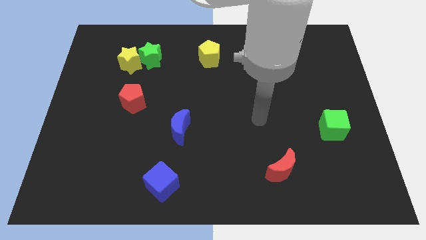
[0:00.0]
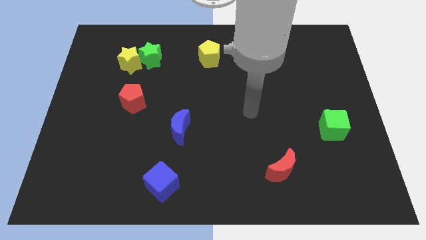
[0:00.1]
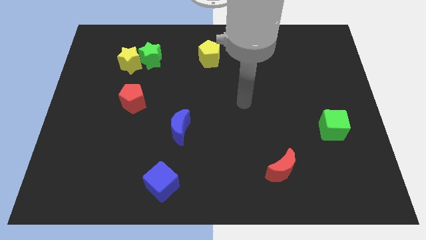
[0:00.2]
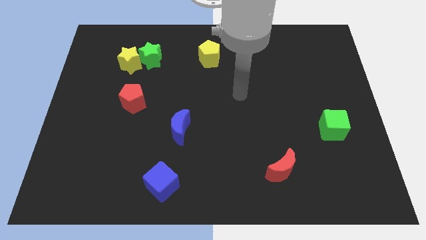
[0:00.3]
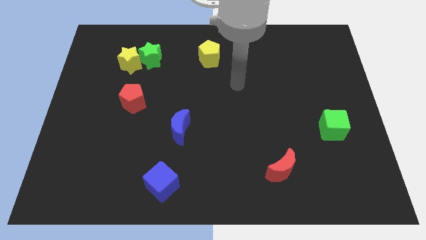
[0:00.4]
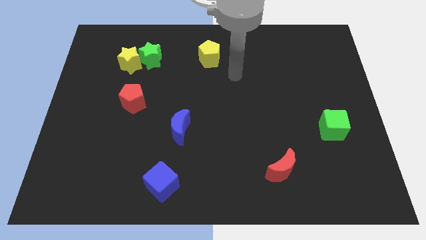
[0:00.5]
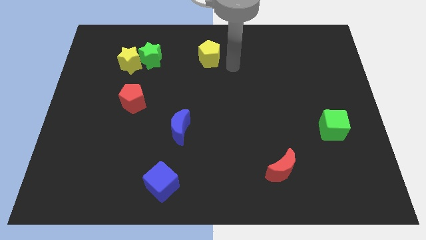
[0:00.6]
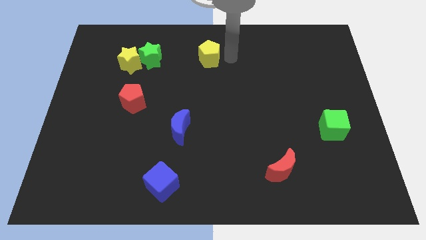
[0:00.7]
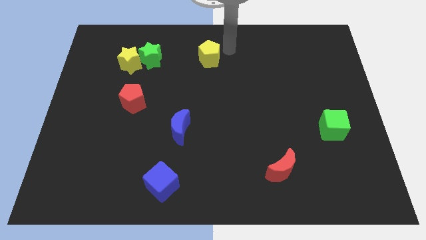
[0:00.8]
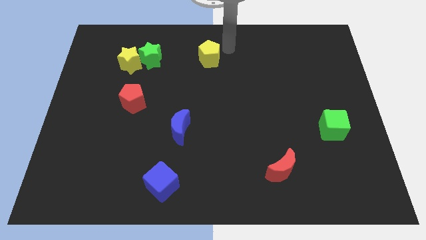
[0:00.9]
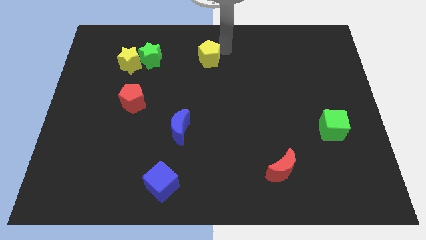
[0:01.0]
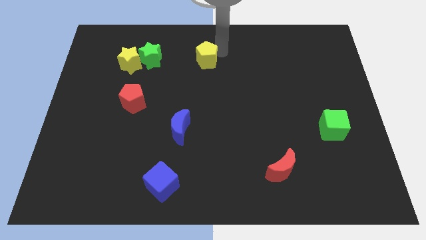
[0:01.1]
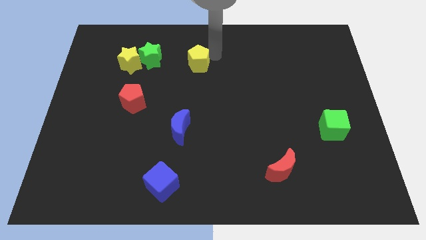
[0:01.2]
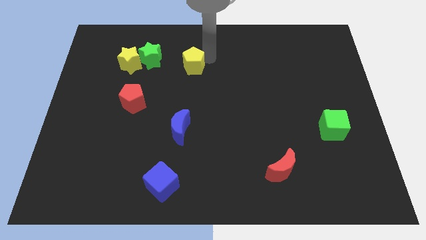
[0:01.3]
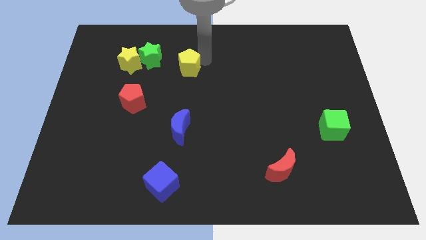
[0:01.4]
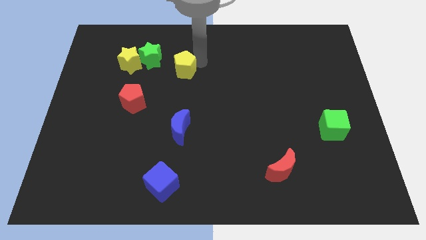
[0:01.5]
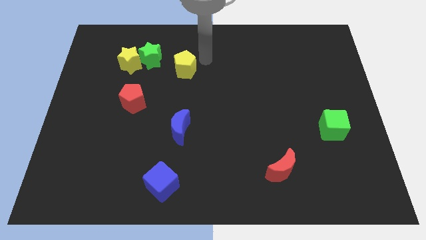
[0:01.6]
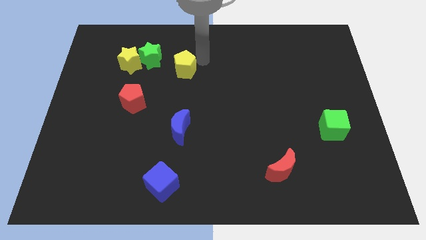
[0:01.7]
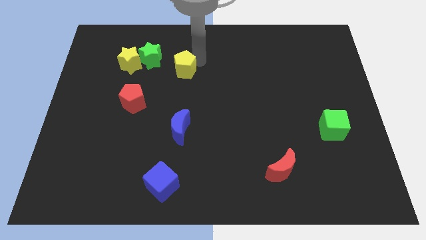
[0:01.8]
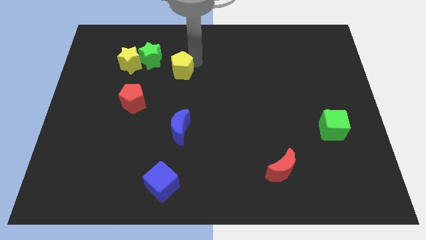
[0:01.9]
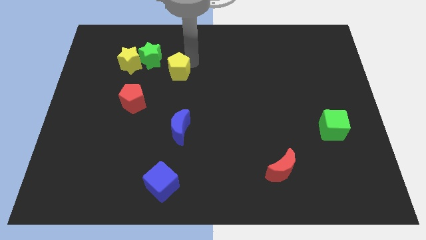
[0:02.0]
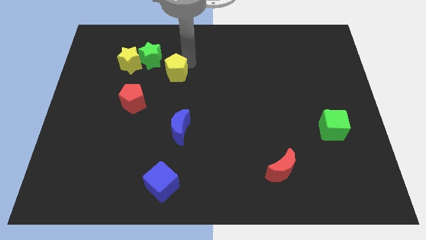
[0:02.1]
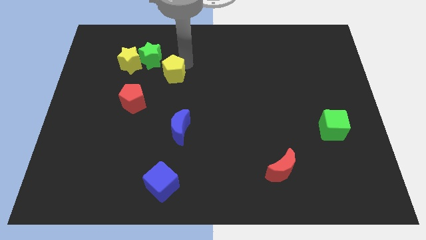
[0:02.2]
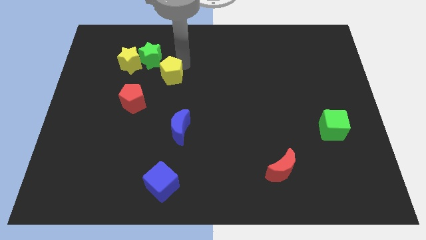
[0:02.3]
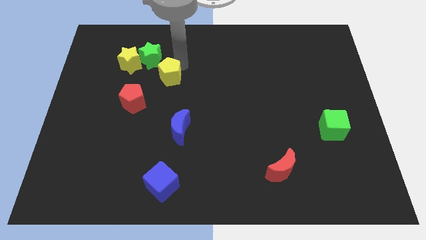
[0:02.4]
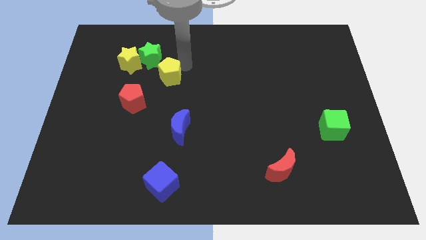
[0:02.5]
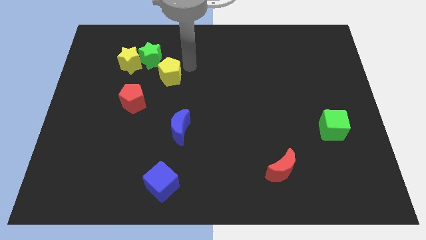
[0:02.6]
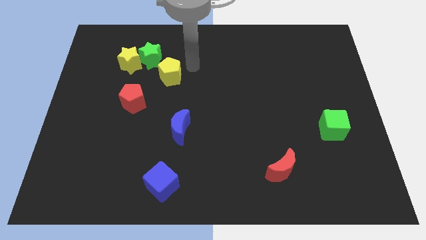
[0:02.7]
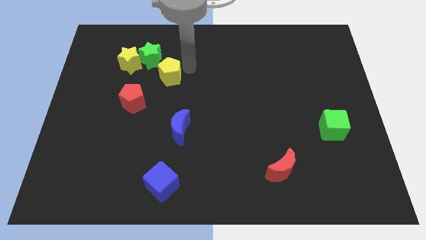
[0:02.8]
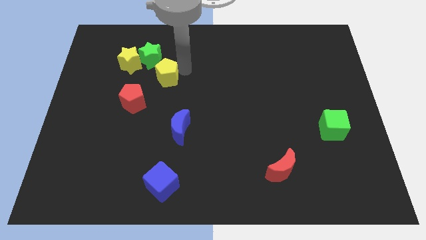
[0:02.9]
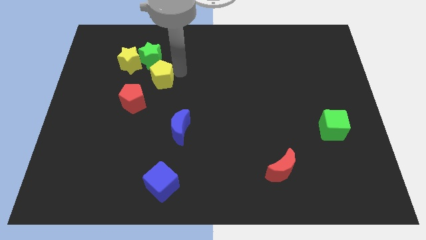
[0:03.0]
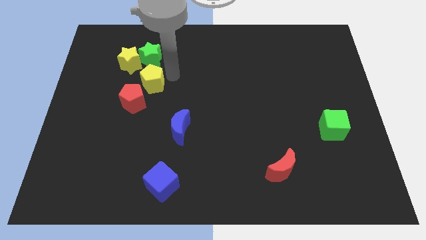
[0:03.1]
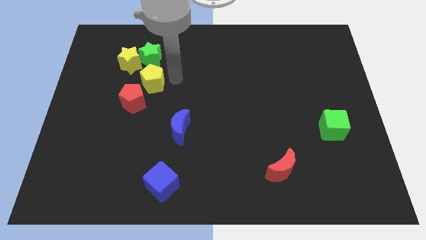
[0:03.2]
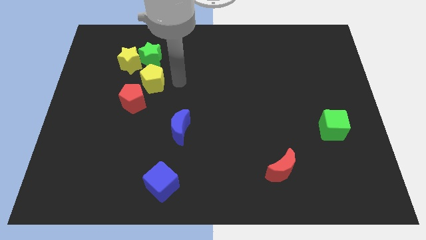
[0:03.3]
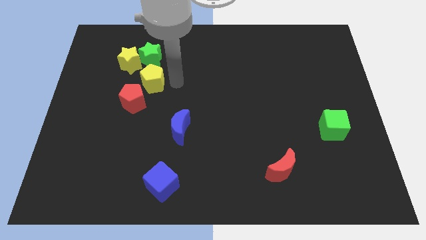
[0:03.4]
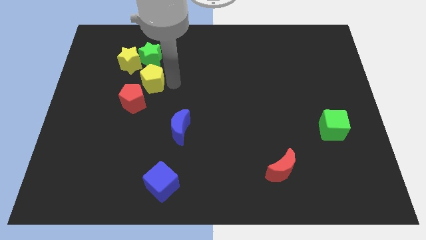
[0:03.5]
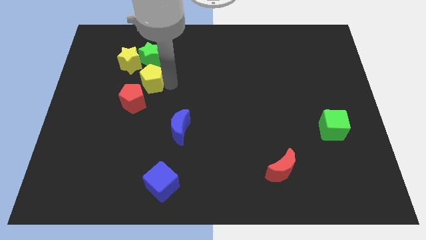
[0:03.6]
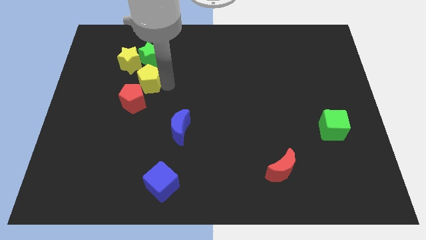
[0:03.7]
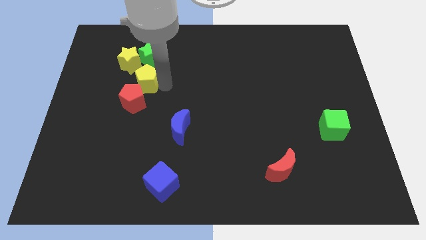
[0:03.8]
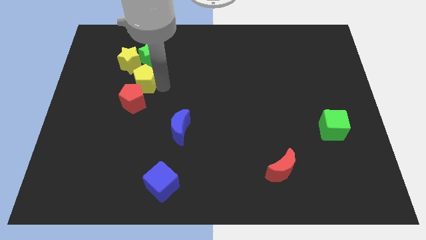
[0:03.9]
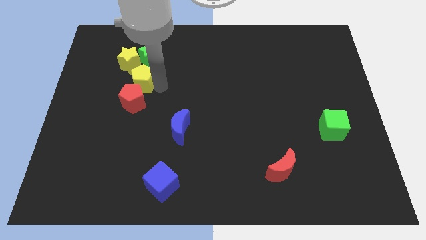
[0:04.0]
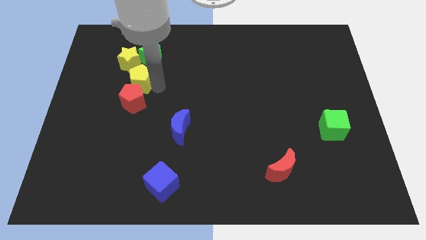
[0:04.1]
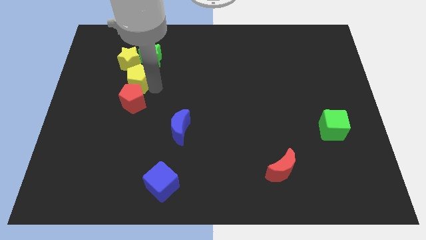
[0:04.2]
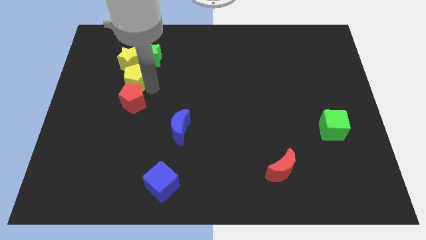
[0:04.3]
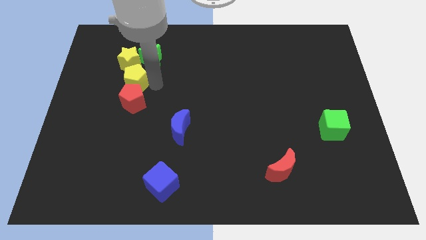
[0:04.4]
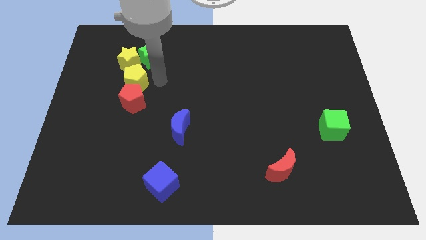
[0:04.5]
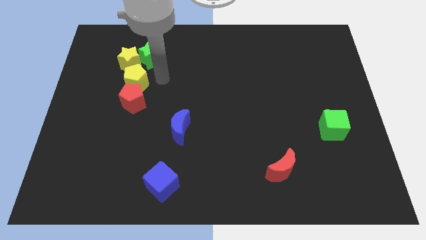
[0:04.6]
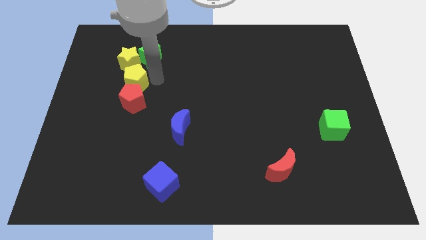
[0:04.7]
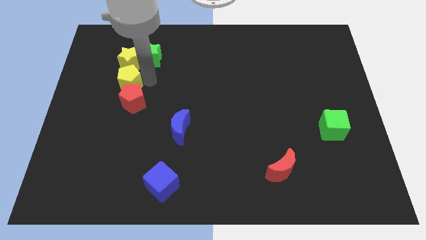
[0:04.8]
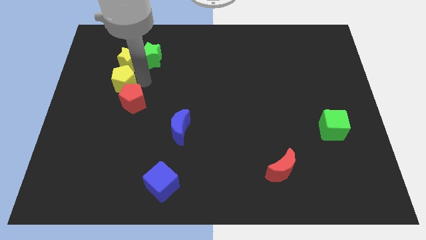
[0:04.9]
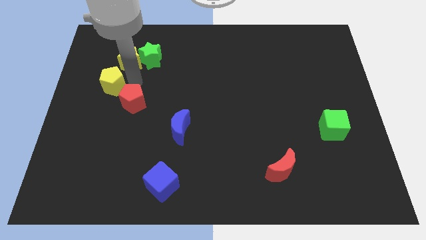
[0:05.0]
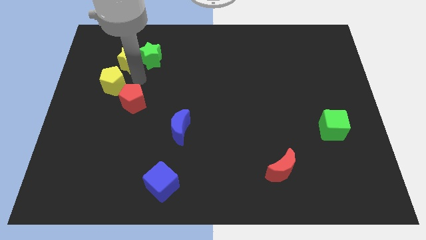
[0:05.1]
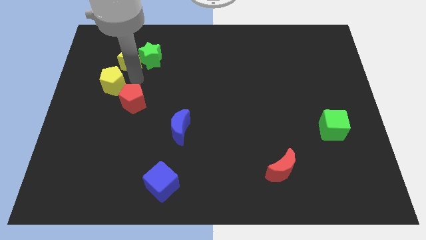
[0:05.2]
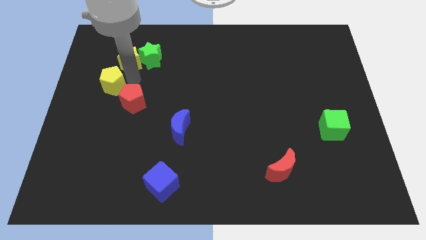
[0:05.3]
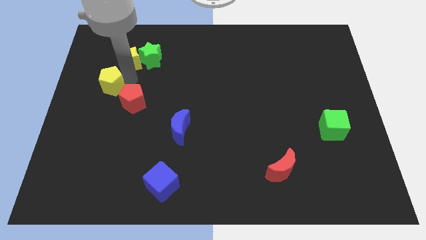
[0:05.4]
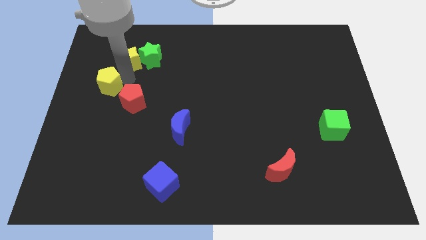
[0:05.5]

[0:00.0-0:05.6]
put the yellow pentagon to the left side

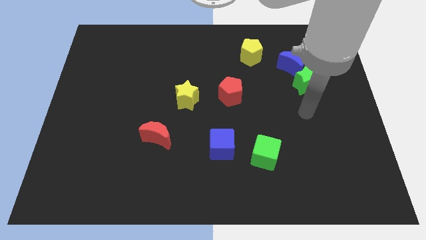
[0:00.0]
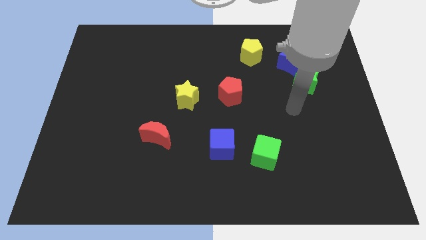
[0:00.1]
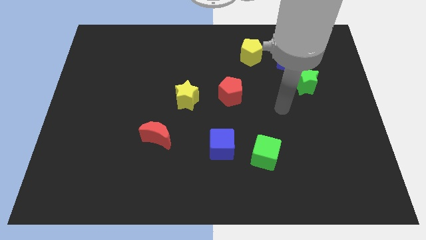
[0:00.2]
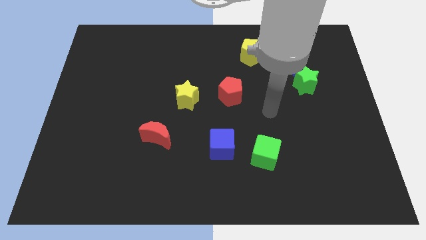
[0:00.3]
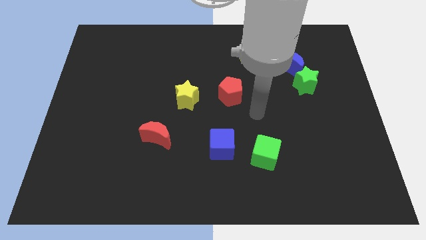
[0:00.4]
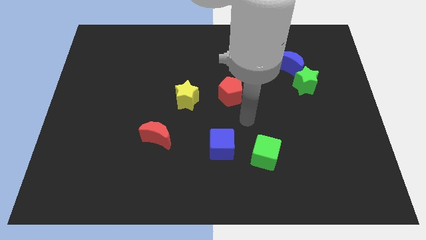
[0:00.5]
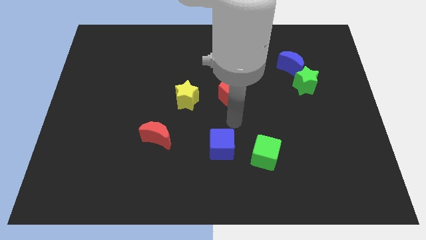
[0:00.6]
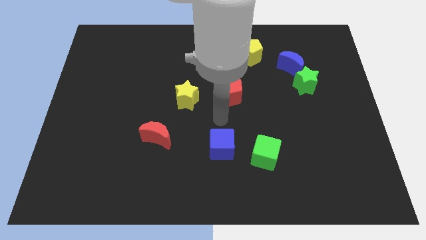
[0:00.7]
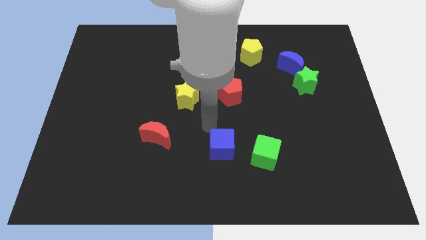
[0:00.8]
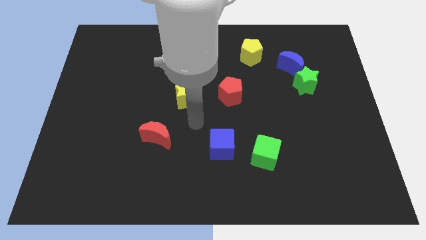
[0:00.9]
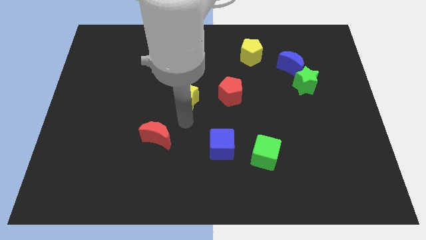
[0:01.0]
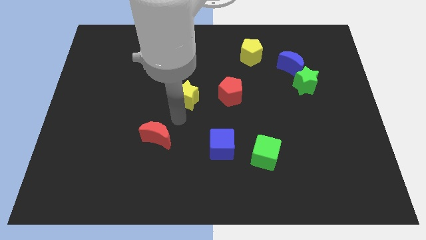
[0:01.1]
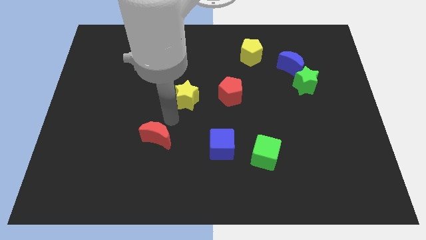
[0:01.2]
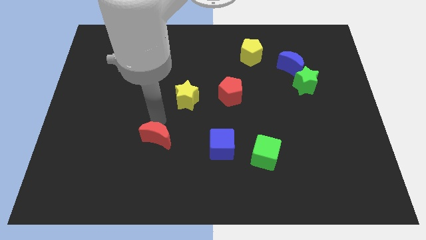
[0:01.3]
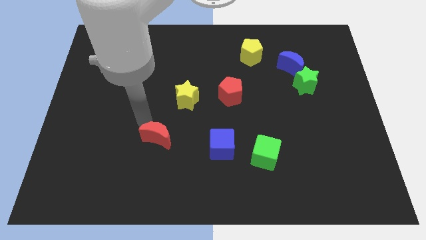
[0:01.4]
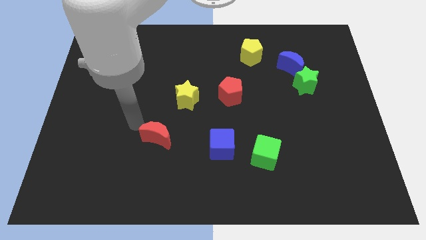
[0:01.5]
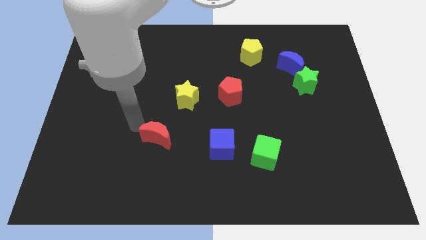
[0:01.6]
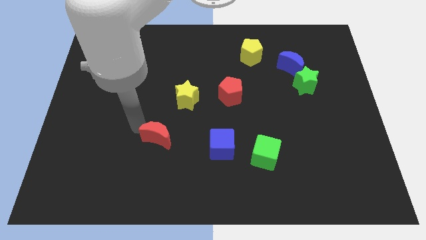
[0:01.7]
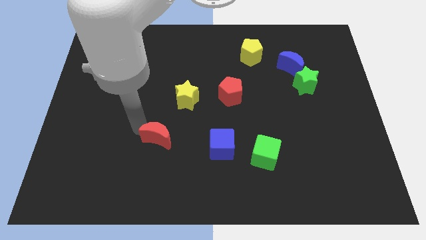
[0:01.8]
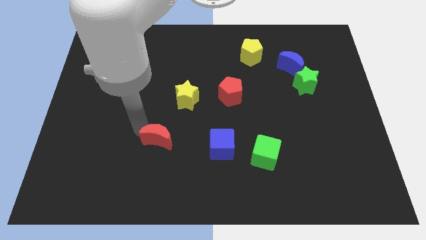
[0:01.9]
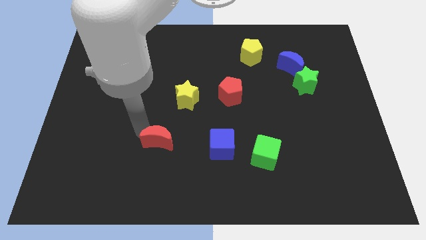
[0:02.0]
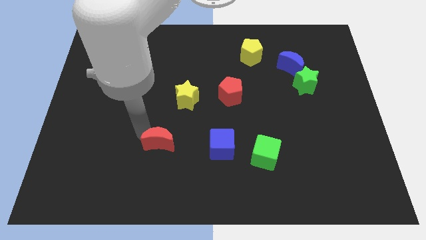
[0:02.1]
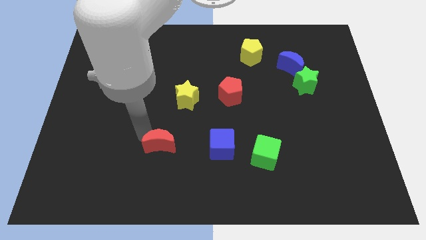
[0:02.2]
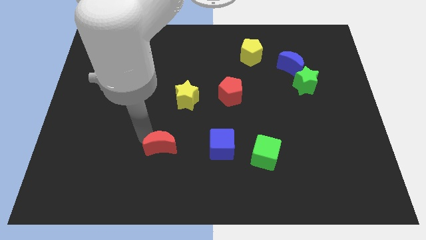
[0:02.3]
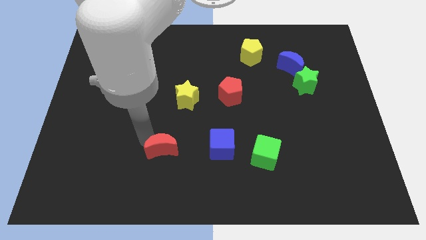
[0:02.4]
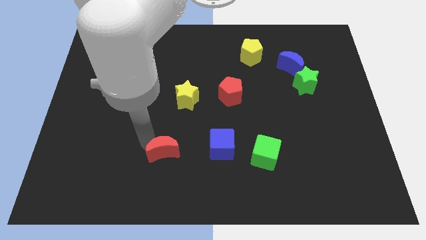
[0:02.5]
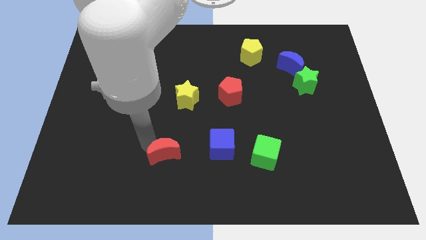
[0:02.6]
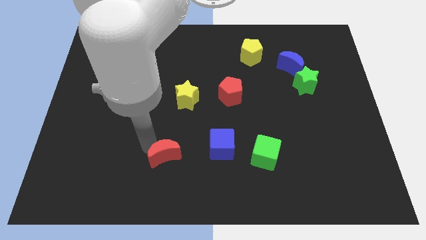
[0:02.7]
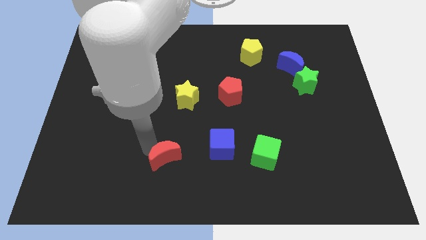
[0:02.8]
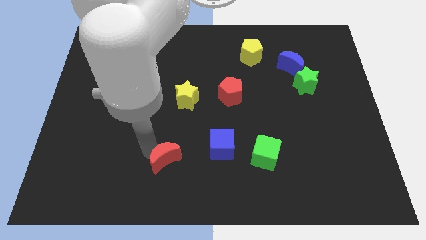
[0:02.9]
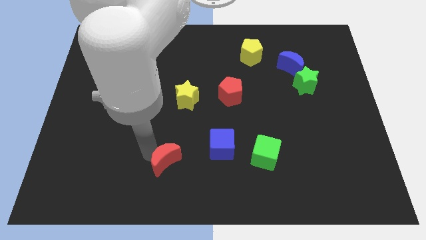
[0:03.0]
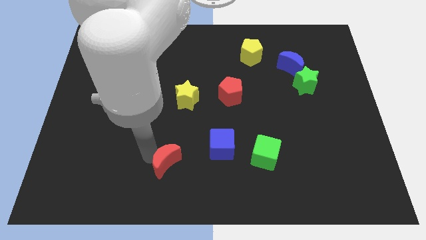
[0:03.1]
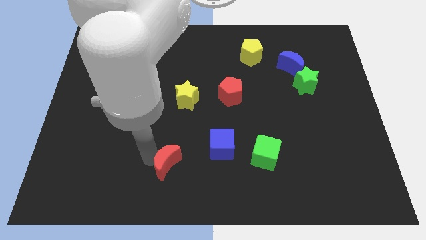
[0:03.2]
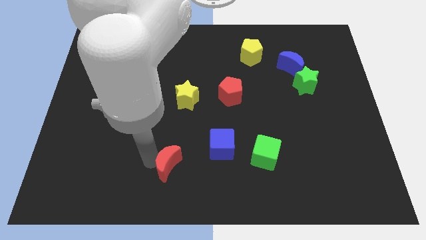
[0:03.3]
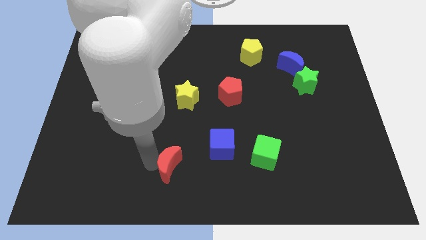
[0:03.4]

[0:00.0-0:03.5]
move the red moon to the bottom
